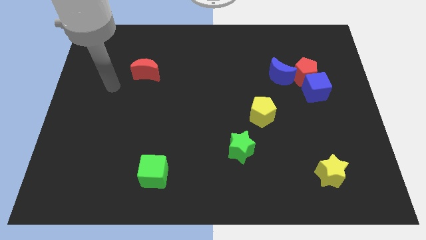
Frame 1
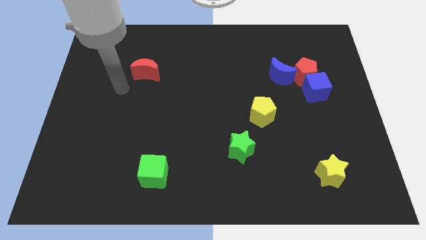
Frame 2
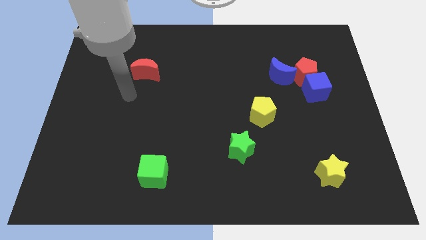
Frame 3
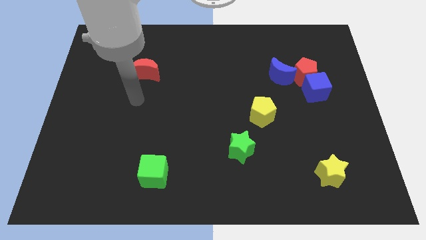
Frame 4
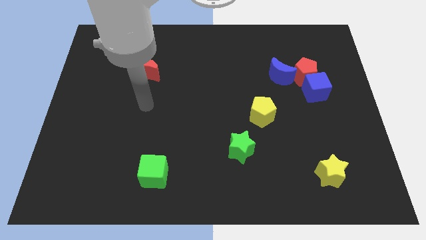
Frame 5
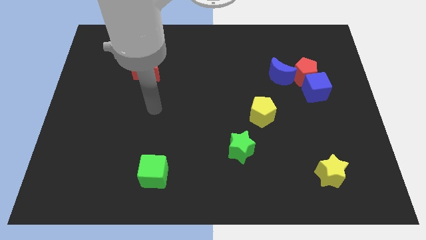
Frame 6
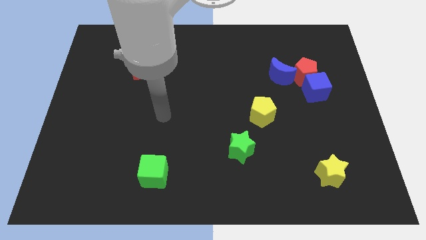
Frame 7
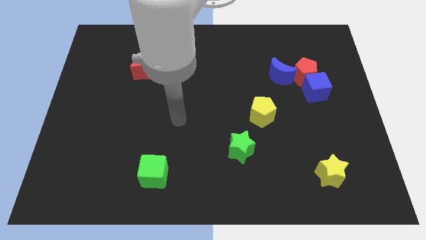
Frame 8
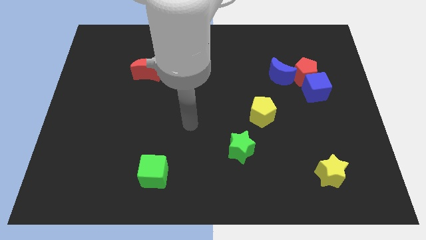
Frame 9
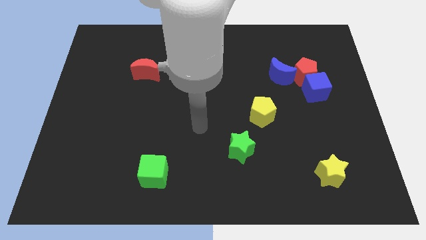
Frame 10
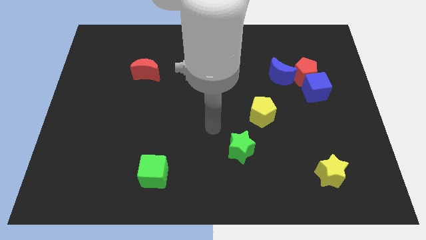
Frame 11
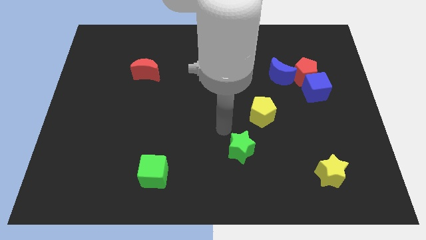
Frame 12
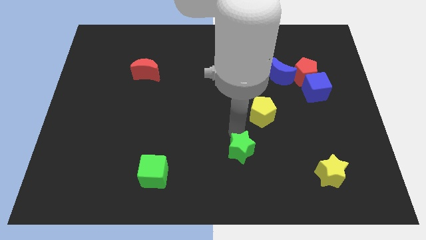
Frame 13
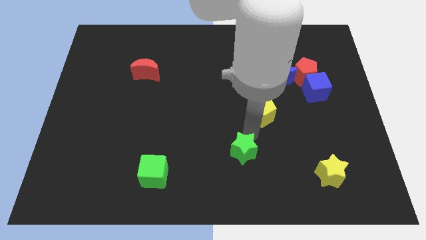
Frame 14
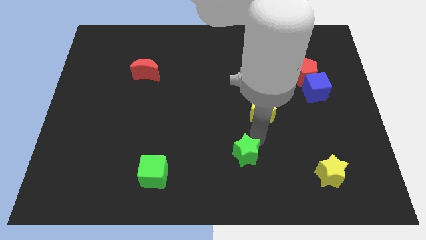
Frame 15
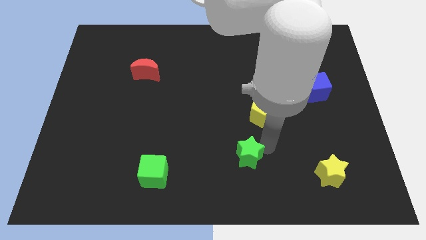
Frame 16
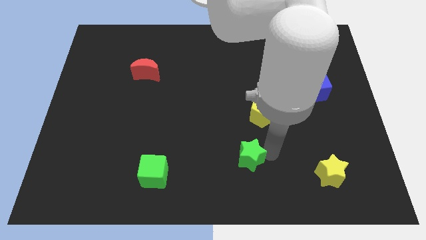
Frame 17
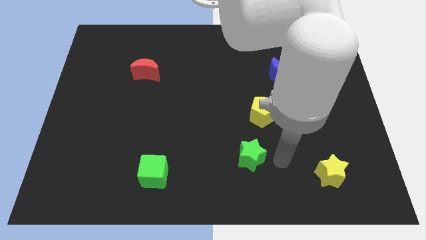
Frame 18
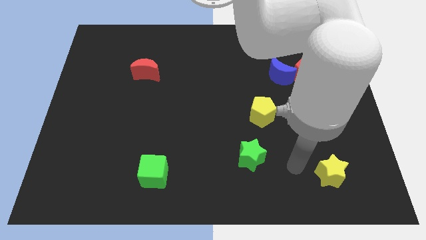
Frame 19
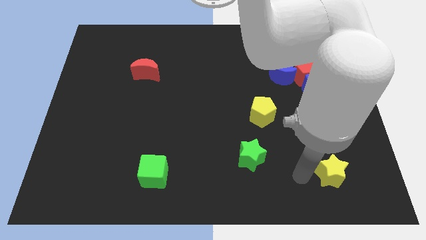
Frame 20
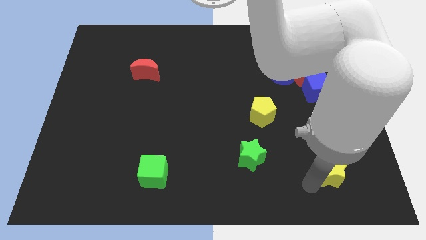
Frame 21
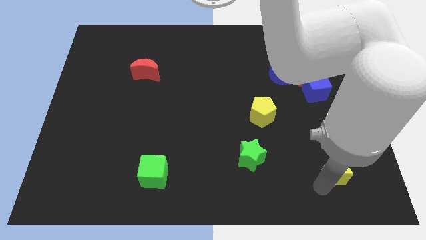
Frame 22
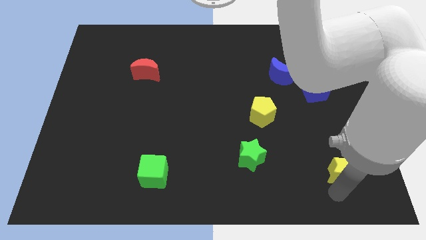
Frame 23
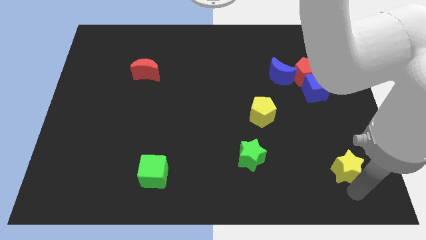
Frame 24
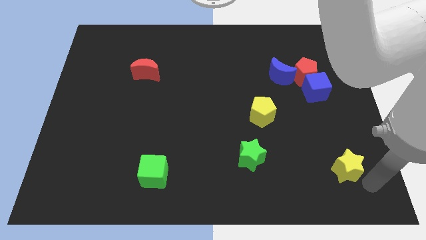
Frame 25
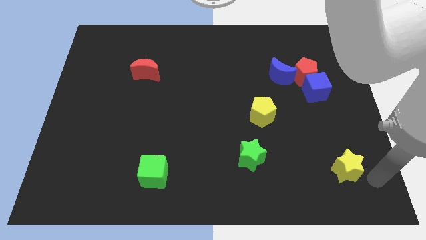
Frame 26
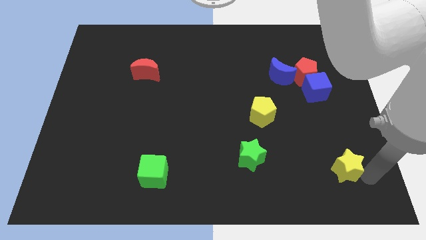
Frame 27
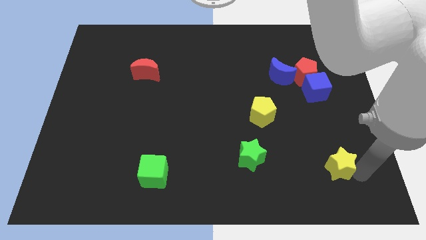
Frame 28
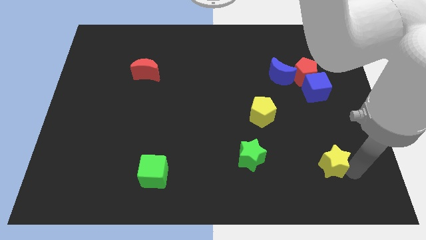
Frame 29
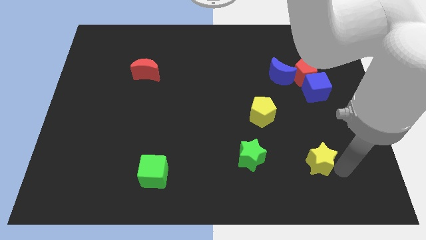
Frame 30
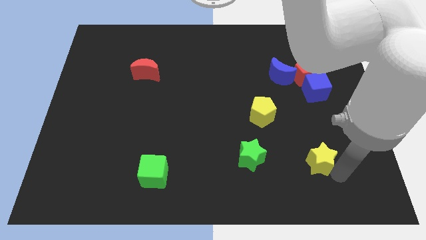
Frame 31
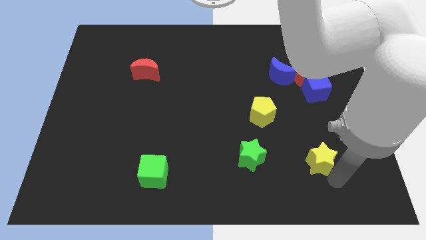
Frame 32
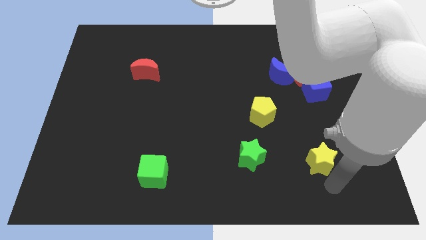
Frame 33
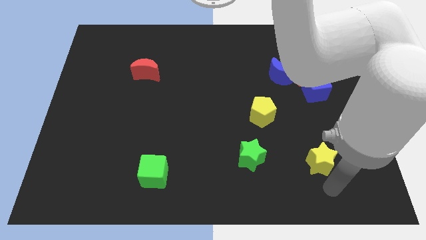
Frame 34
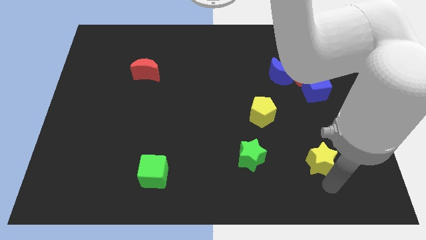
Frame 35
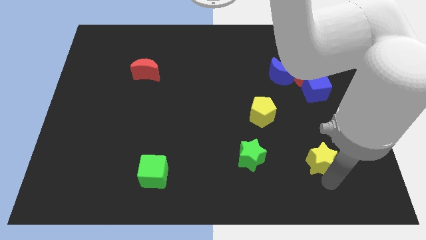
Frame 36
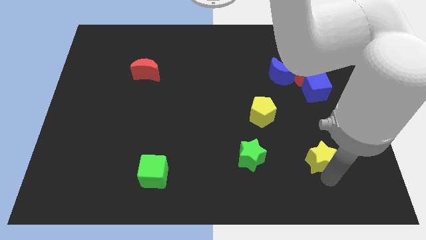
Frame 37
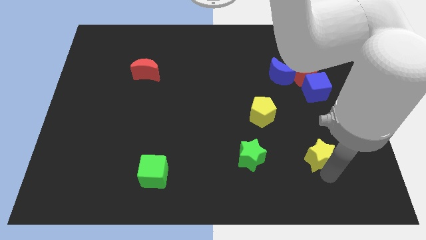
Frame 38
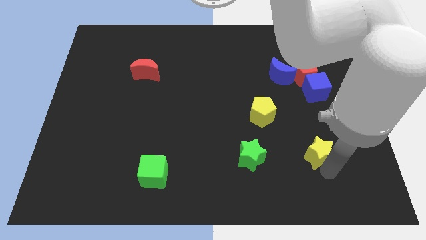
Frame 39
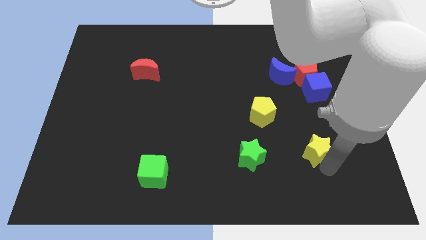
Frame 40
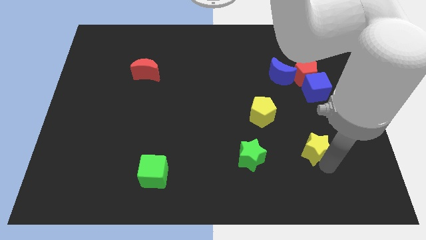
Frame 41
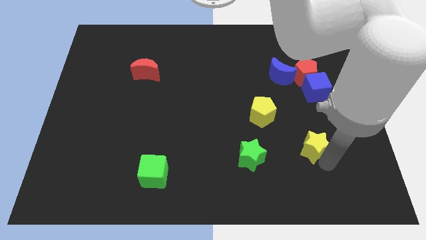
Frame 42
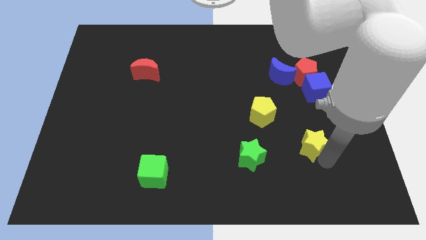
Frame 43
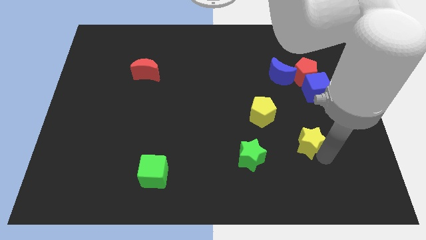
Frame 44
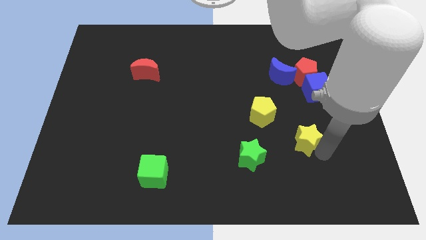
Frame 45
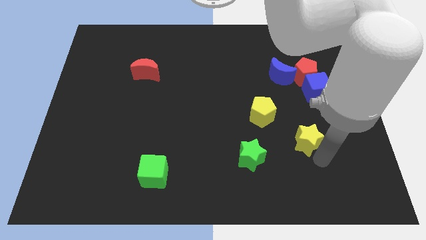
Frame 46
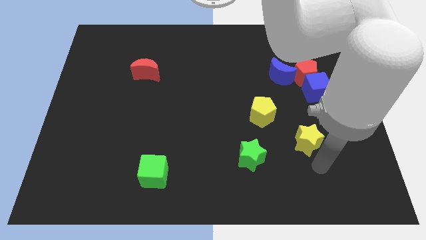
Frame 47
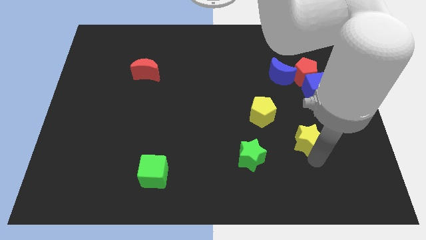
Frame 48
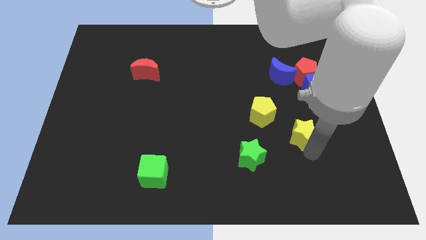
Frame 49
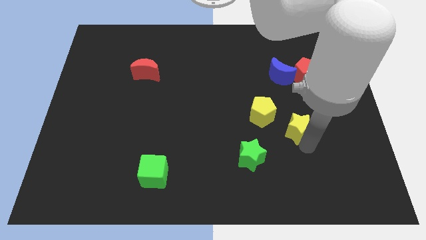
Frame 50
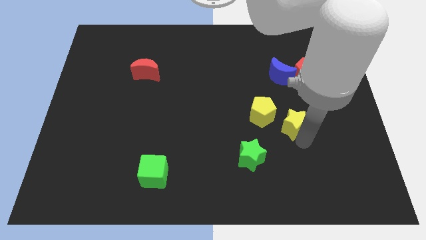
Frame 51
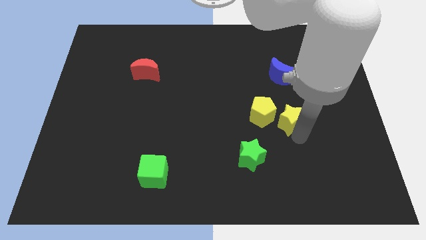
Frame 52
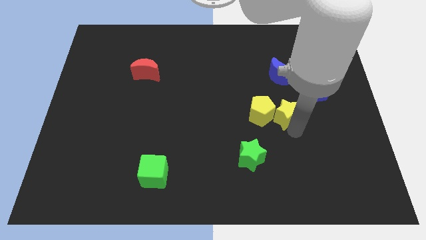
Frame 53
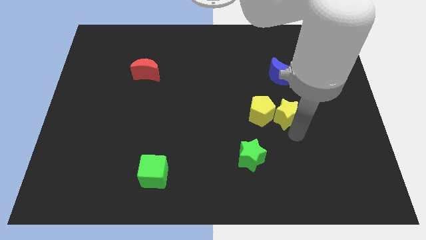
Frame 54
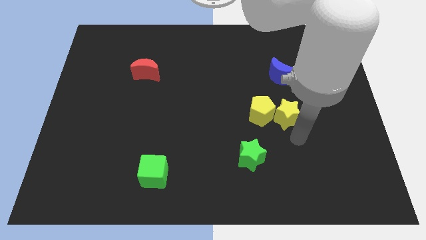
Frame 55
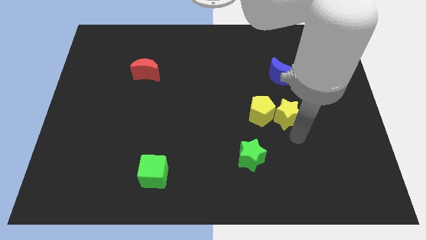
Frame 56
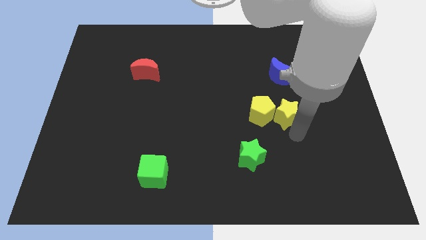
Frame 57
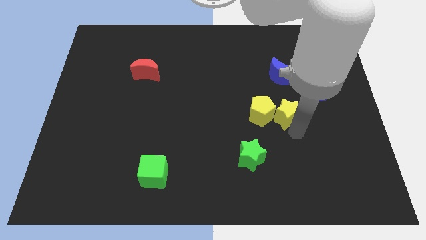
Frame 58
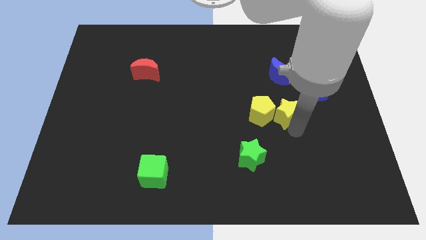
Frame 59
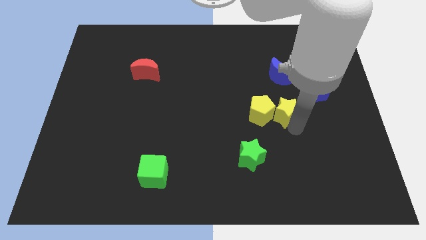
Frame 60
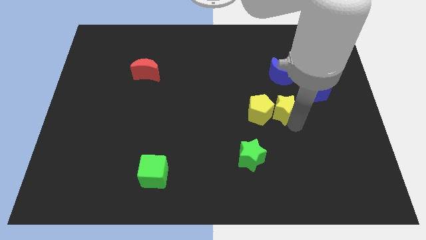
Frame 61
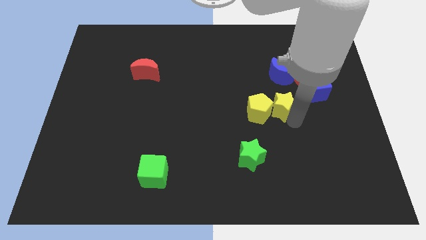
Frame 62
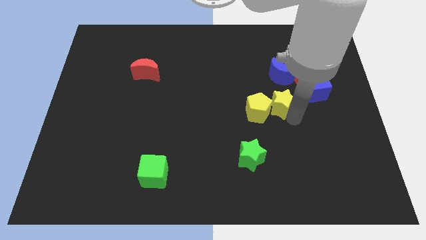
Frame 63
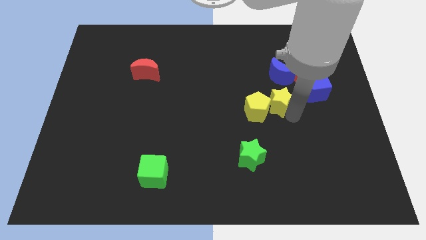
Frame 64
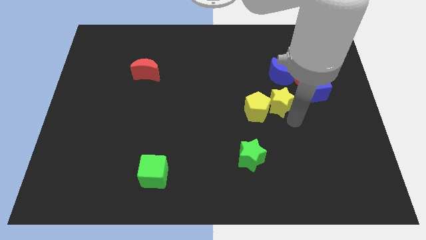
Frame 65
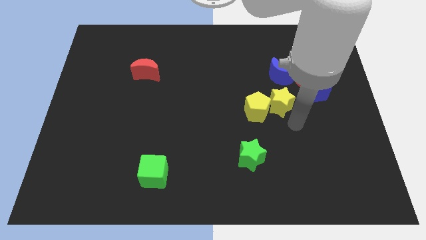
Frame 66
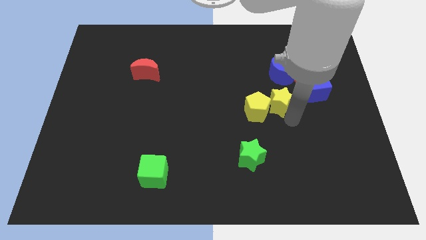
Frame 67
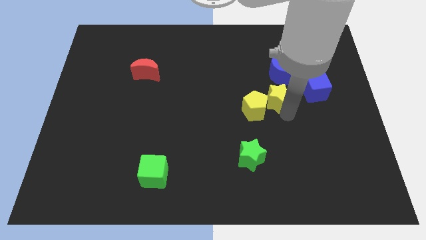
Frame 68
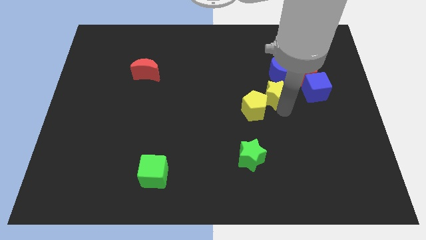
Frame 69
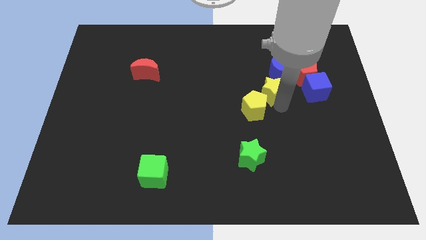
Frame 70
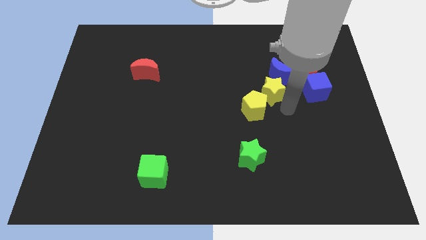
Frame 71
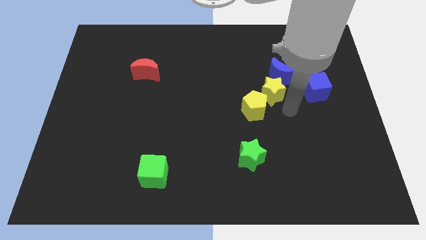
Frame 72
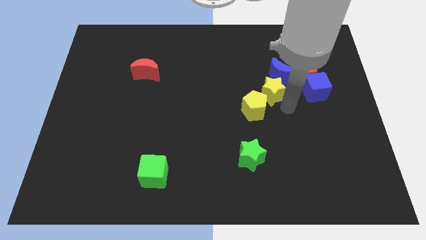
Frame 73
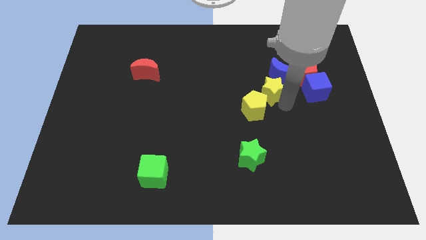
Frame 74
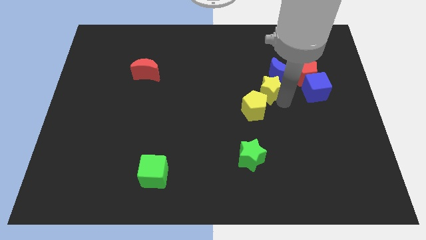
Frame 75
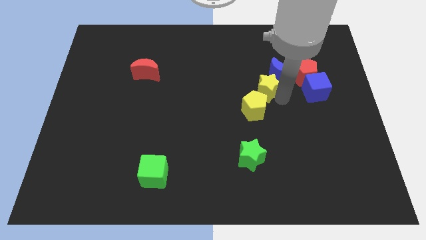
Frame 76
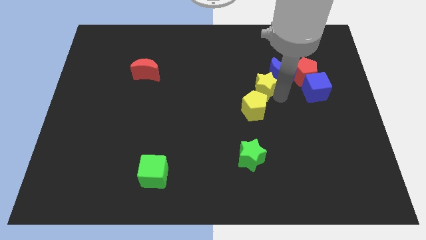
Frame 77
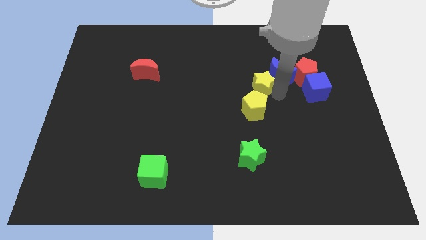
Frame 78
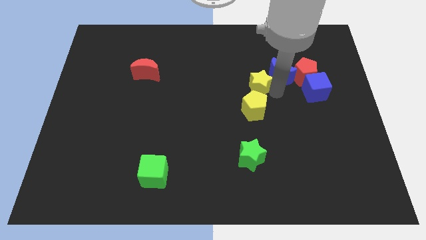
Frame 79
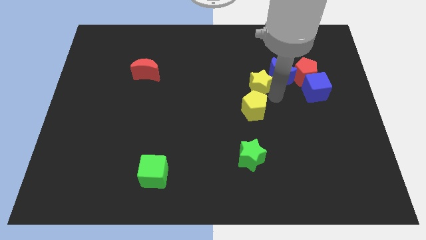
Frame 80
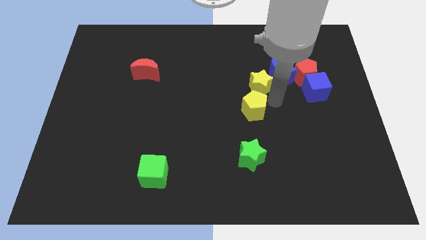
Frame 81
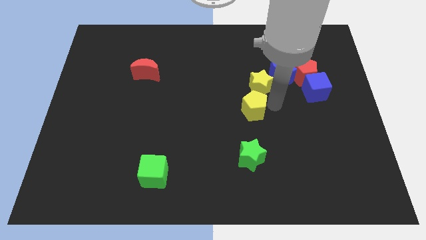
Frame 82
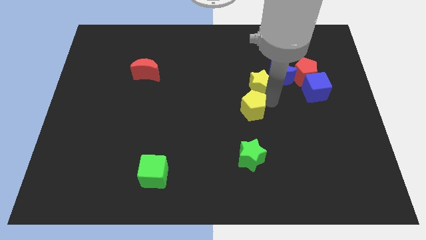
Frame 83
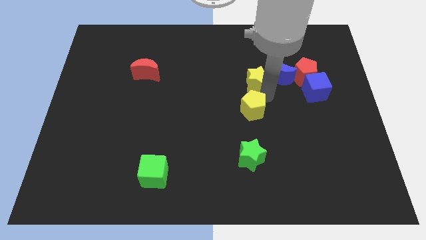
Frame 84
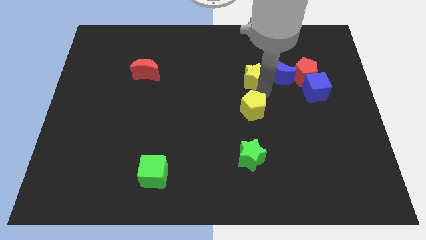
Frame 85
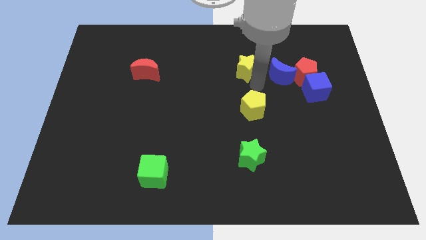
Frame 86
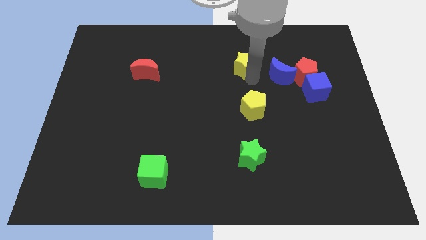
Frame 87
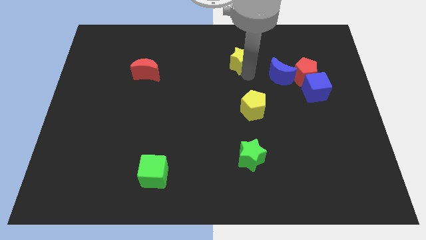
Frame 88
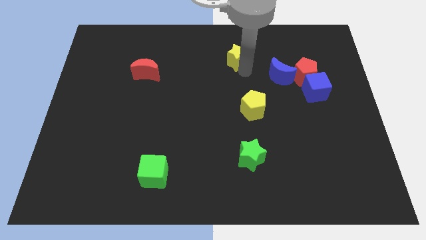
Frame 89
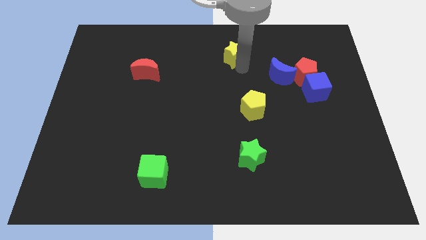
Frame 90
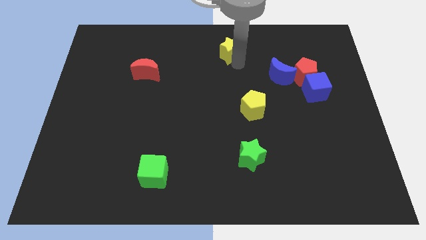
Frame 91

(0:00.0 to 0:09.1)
slide the yellow star to the top
